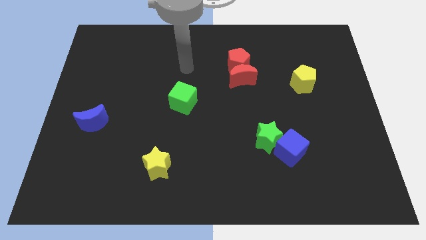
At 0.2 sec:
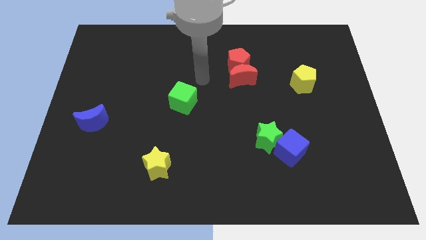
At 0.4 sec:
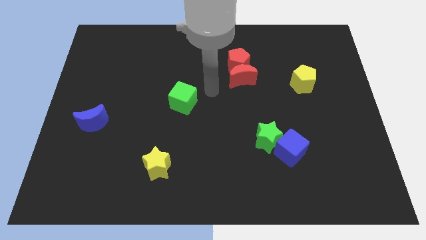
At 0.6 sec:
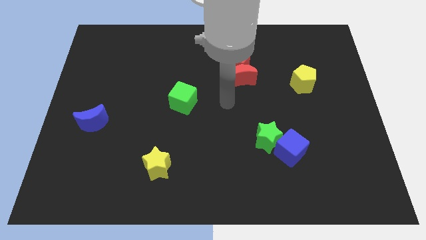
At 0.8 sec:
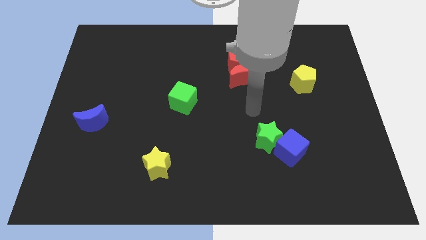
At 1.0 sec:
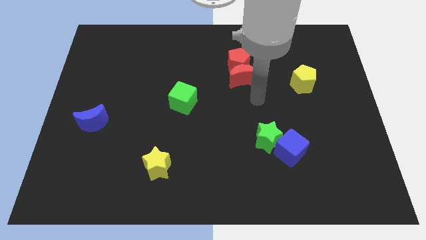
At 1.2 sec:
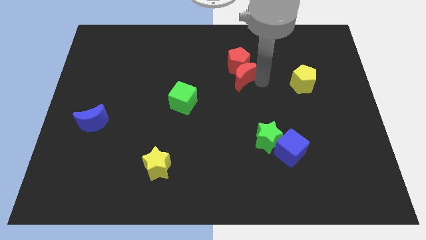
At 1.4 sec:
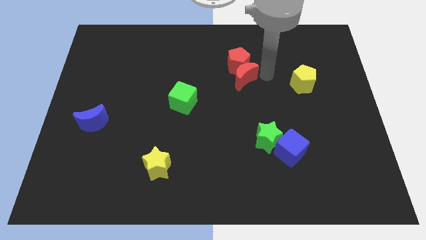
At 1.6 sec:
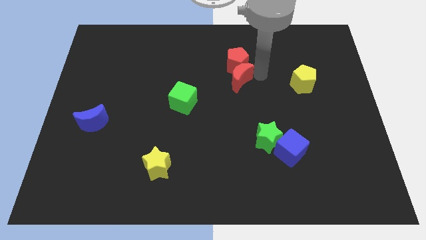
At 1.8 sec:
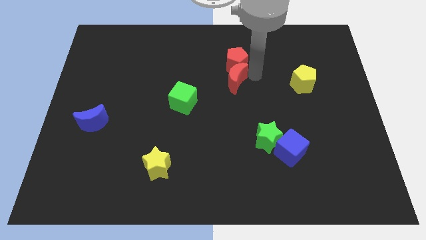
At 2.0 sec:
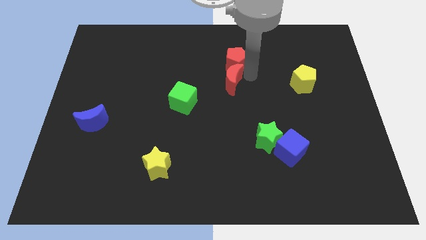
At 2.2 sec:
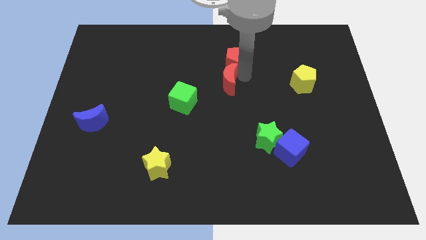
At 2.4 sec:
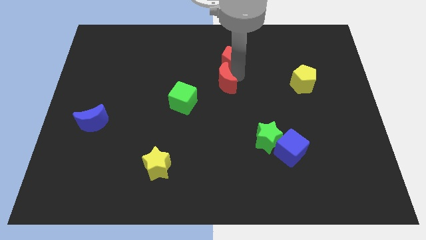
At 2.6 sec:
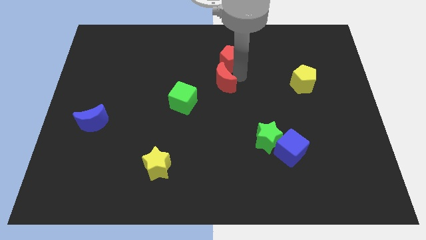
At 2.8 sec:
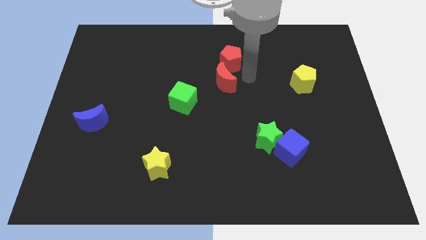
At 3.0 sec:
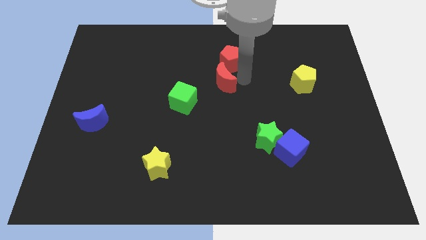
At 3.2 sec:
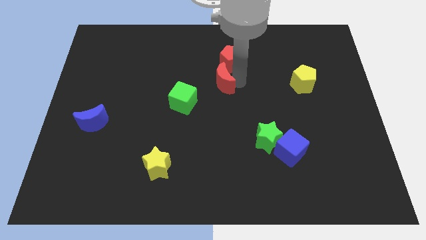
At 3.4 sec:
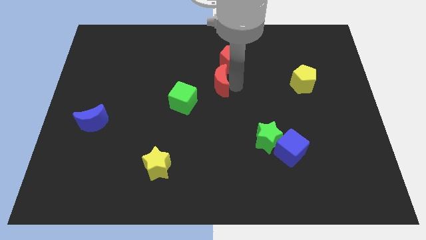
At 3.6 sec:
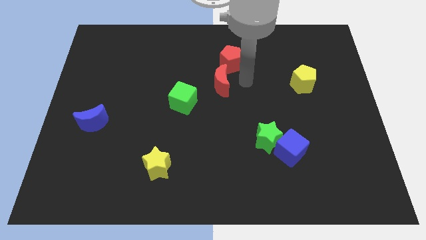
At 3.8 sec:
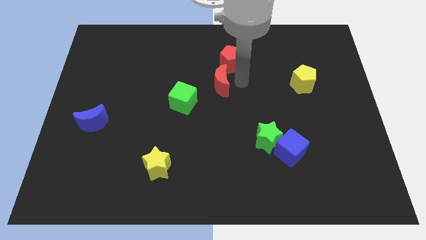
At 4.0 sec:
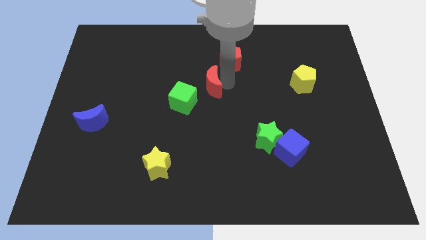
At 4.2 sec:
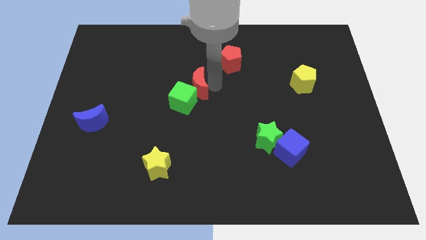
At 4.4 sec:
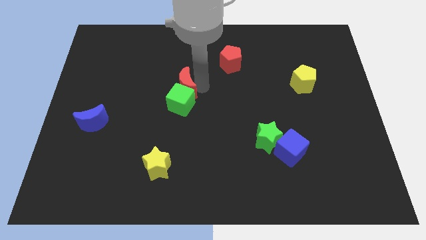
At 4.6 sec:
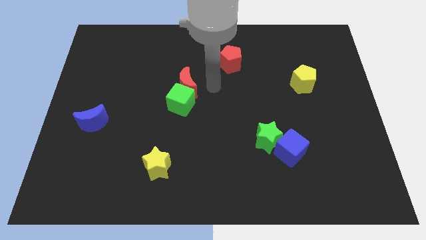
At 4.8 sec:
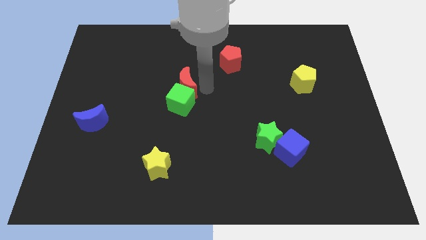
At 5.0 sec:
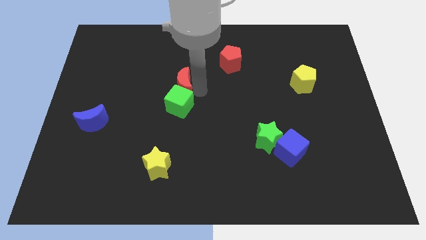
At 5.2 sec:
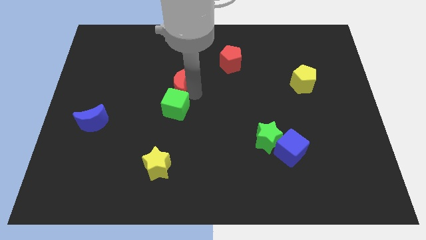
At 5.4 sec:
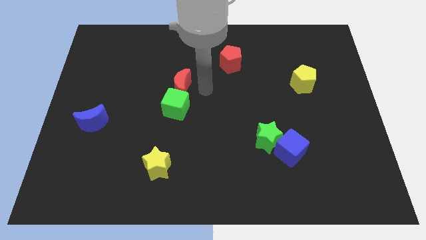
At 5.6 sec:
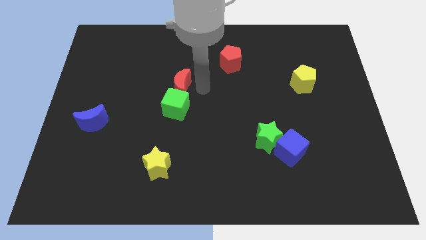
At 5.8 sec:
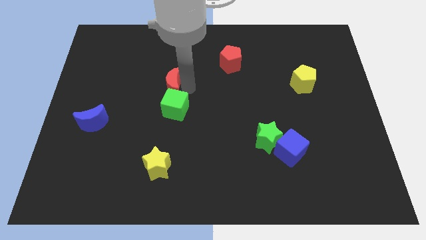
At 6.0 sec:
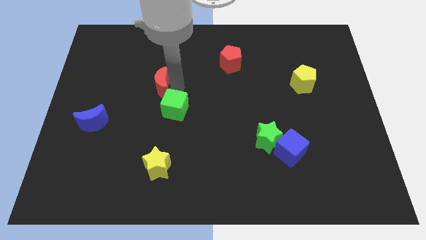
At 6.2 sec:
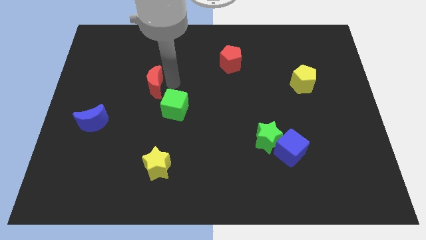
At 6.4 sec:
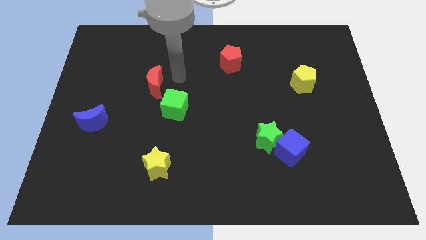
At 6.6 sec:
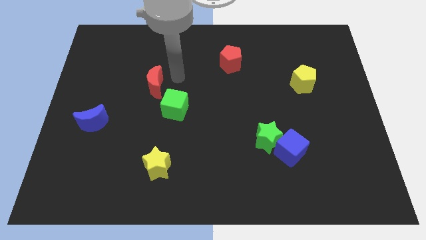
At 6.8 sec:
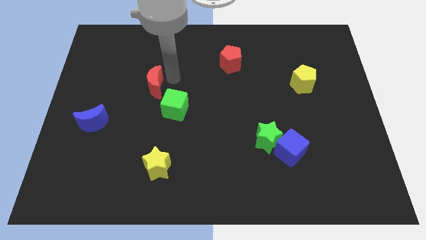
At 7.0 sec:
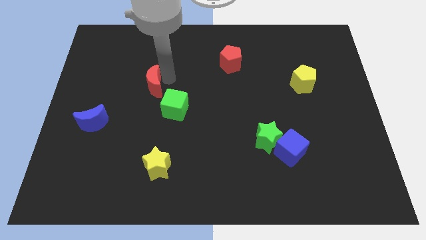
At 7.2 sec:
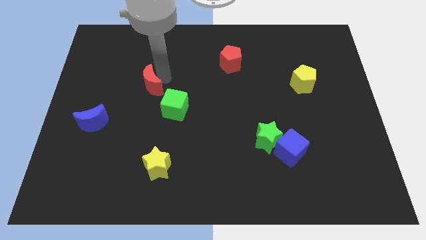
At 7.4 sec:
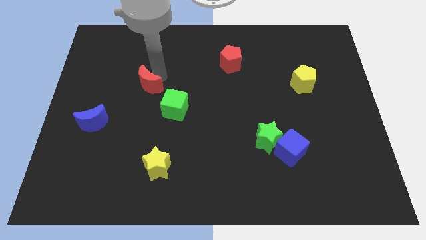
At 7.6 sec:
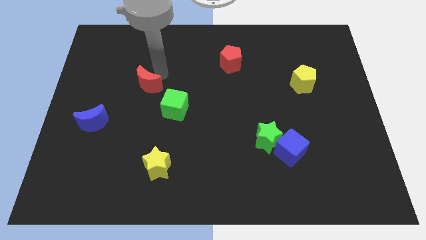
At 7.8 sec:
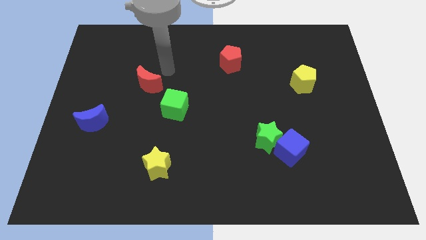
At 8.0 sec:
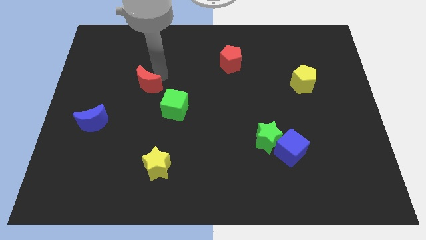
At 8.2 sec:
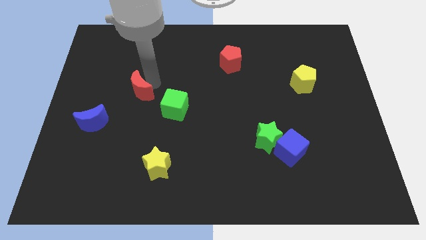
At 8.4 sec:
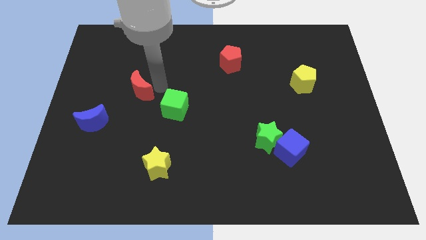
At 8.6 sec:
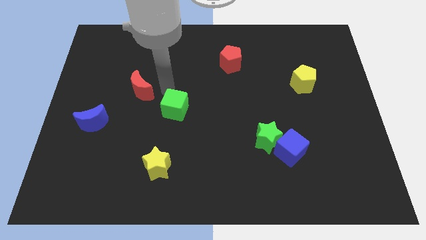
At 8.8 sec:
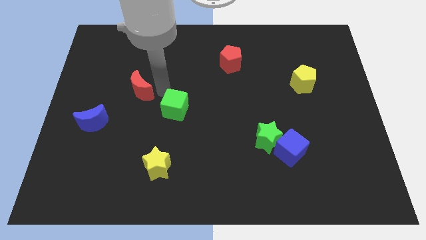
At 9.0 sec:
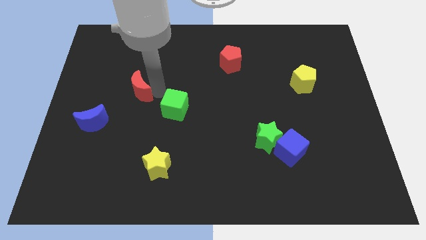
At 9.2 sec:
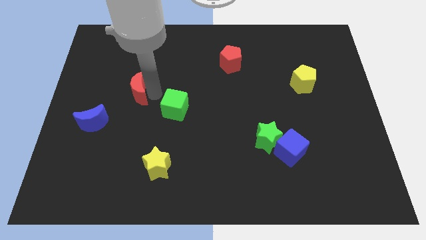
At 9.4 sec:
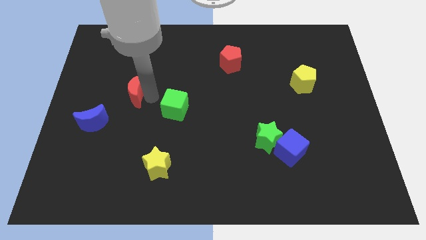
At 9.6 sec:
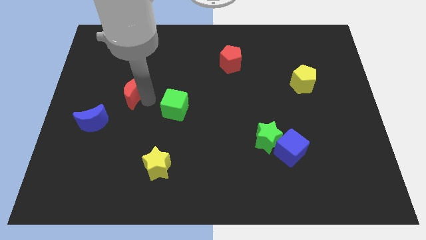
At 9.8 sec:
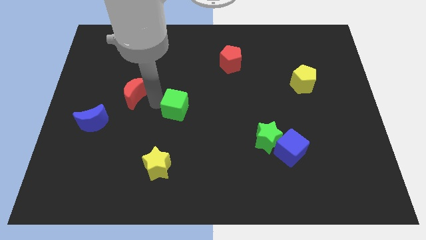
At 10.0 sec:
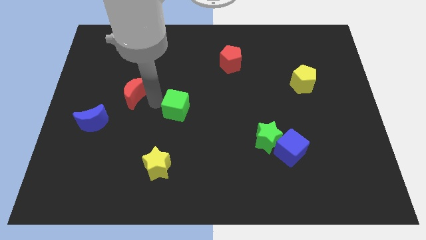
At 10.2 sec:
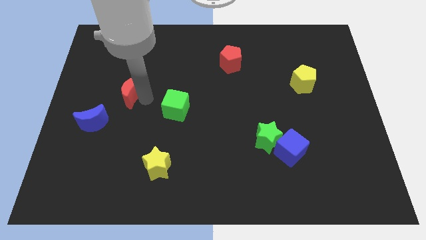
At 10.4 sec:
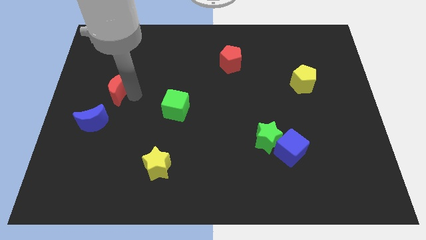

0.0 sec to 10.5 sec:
slide the red moon above the blue moon

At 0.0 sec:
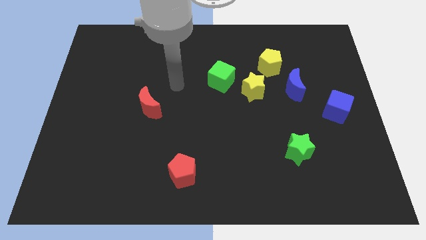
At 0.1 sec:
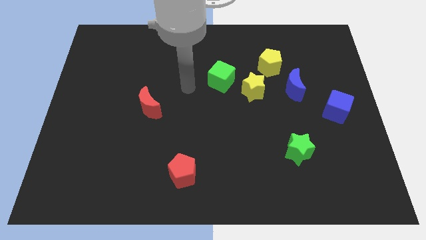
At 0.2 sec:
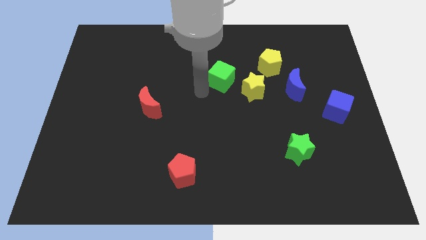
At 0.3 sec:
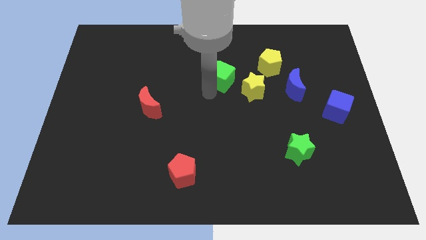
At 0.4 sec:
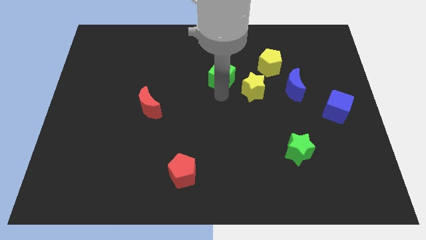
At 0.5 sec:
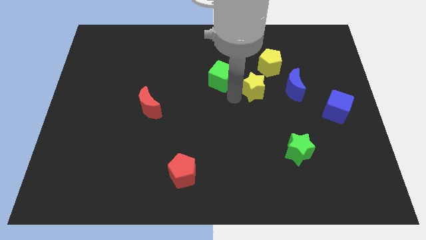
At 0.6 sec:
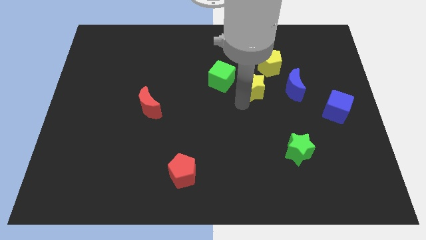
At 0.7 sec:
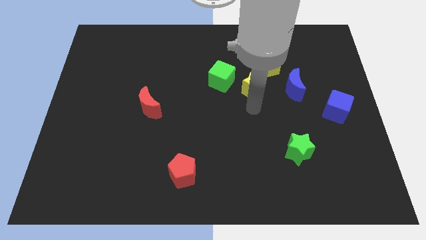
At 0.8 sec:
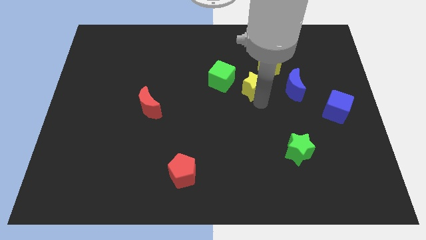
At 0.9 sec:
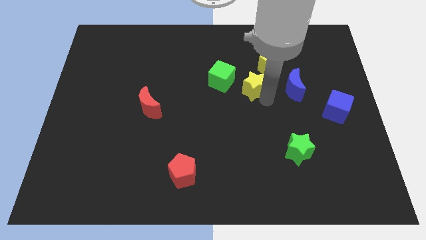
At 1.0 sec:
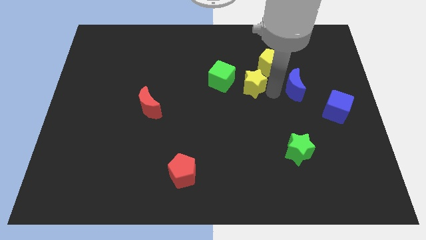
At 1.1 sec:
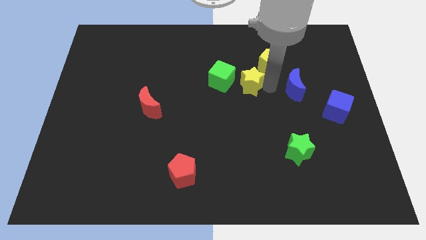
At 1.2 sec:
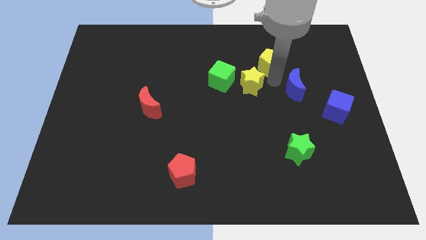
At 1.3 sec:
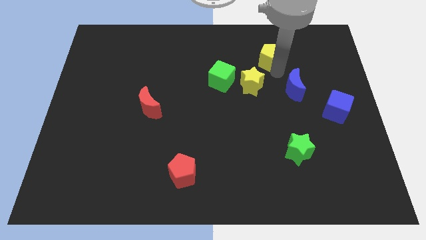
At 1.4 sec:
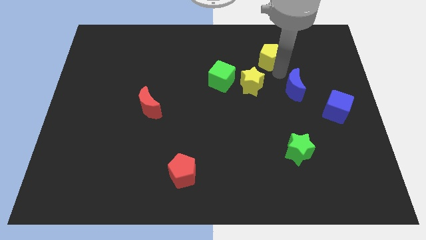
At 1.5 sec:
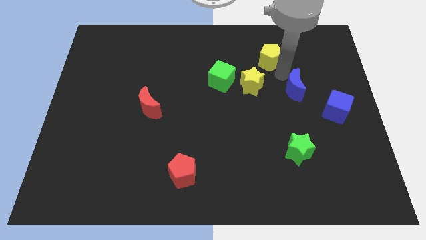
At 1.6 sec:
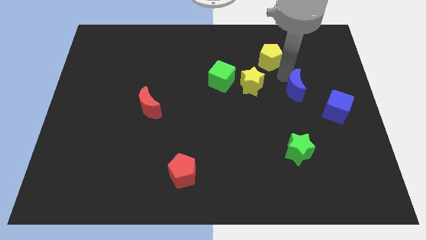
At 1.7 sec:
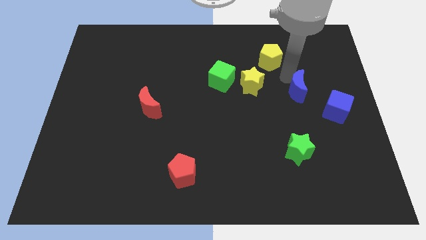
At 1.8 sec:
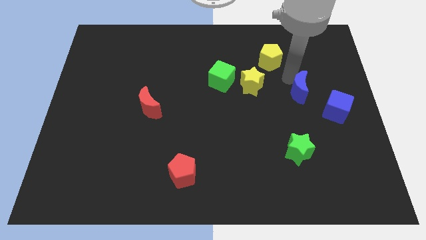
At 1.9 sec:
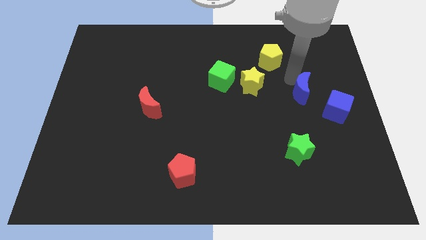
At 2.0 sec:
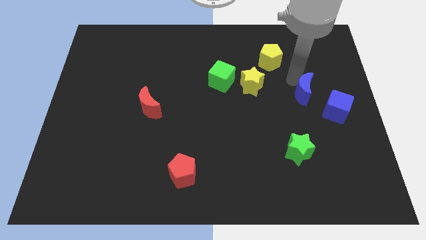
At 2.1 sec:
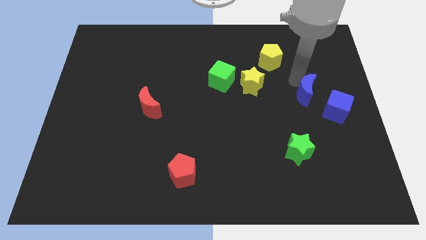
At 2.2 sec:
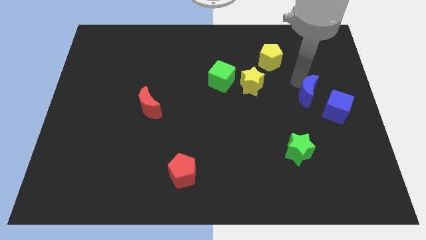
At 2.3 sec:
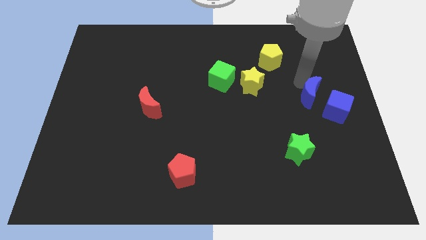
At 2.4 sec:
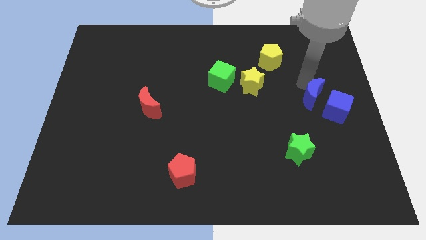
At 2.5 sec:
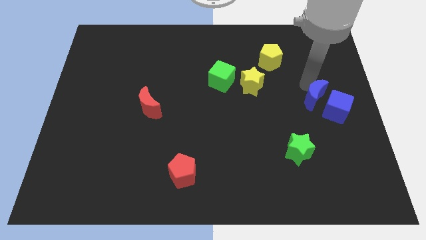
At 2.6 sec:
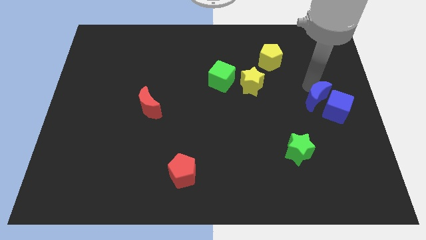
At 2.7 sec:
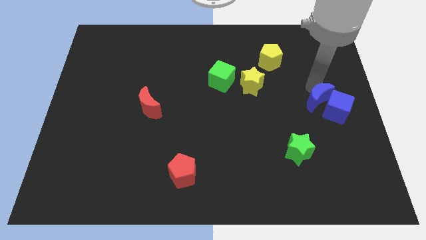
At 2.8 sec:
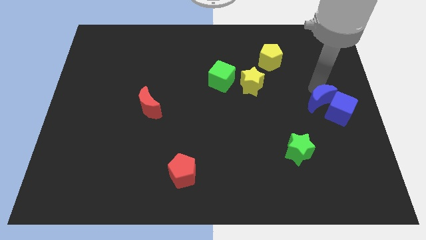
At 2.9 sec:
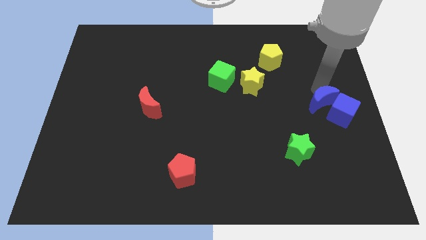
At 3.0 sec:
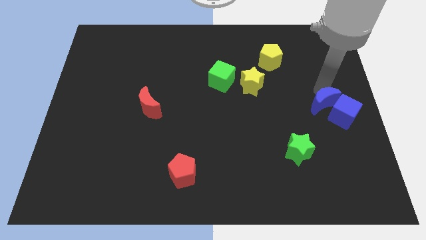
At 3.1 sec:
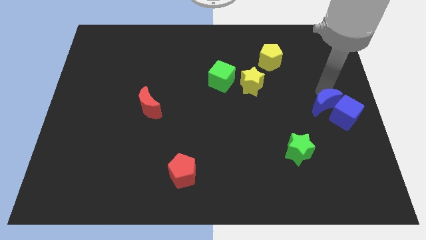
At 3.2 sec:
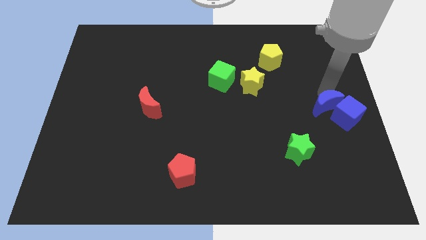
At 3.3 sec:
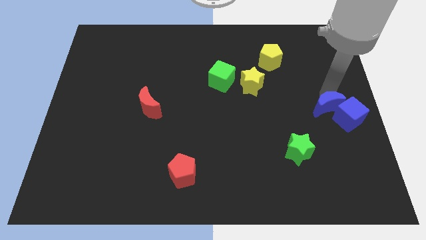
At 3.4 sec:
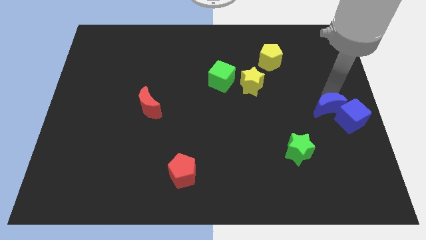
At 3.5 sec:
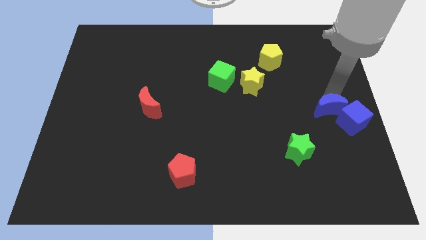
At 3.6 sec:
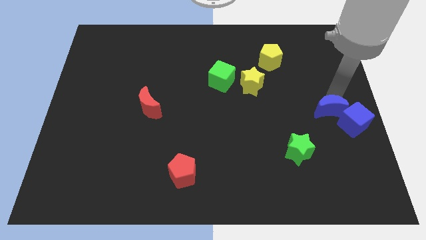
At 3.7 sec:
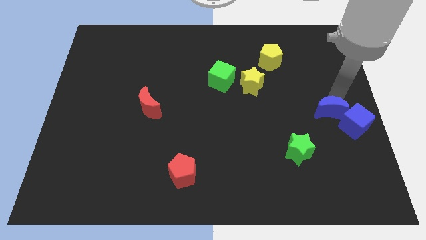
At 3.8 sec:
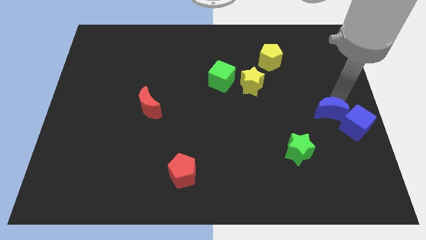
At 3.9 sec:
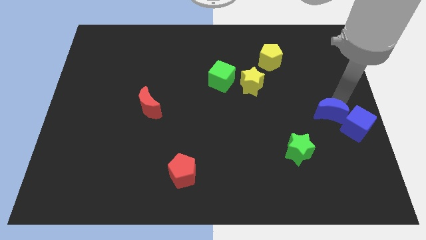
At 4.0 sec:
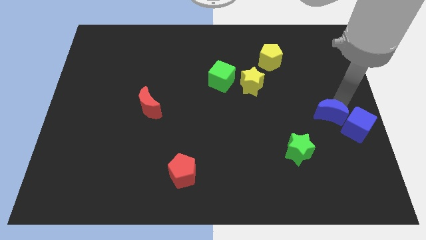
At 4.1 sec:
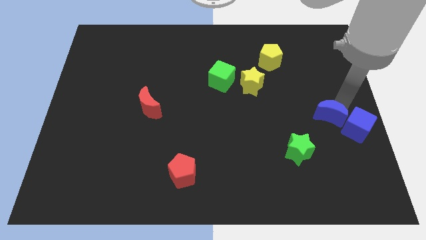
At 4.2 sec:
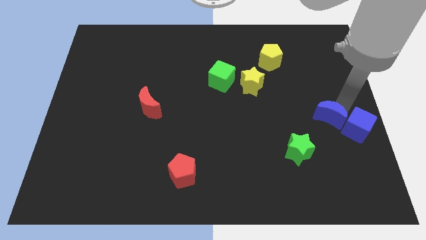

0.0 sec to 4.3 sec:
put the blue moon to the top right of the green star
